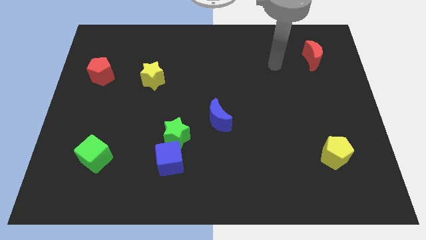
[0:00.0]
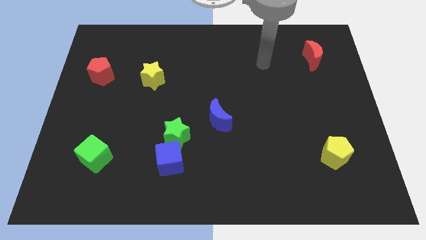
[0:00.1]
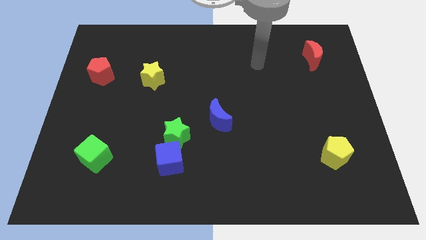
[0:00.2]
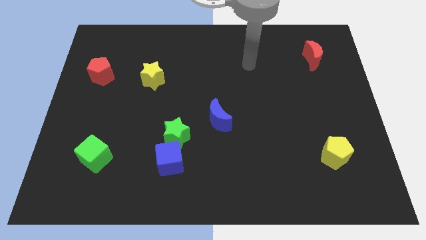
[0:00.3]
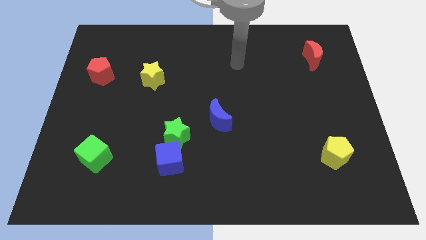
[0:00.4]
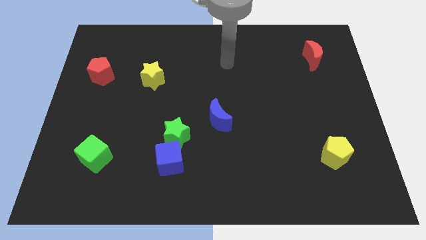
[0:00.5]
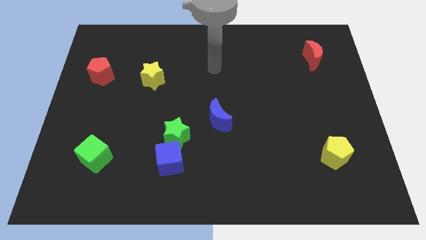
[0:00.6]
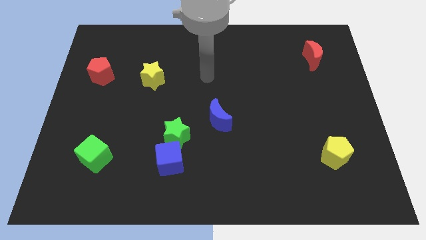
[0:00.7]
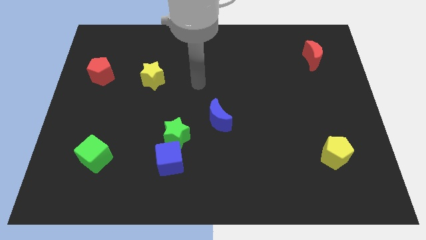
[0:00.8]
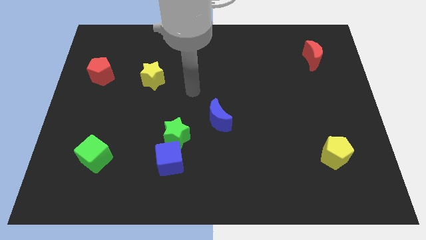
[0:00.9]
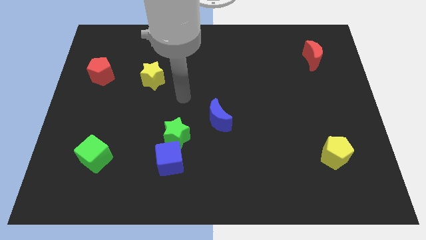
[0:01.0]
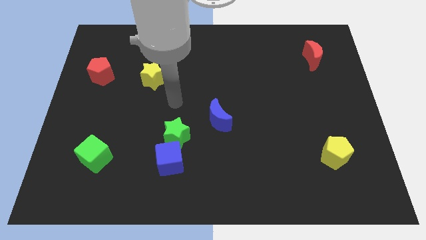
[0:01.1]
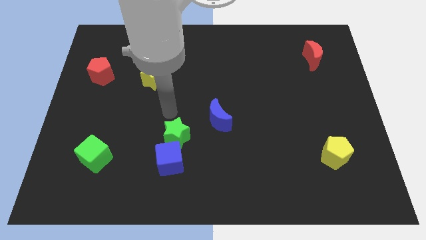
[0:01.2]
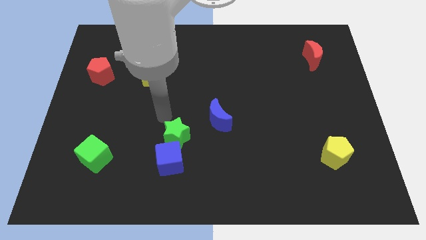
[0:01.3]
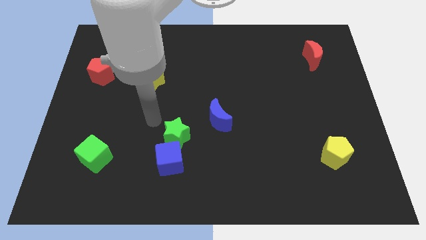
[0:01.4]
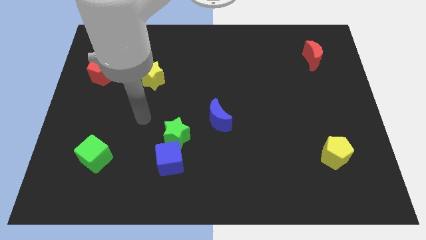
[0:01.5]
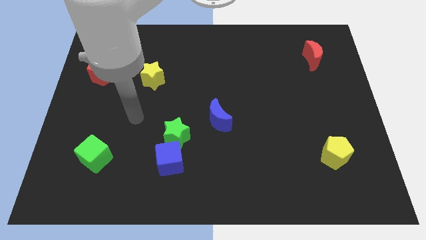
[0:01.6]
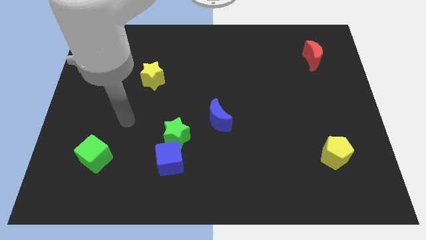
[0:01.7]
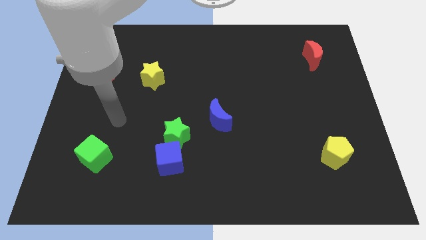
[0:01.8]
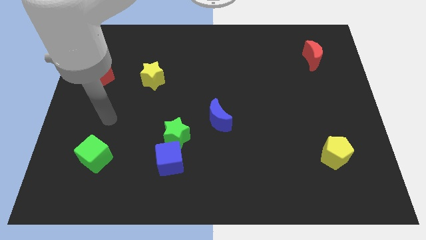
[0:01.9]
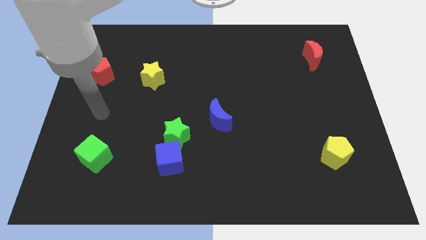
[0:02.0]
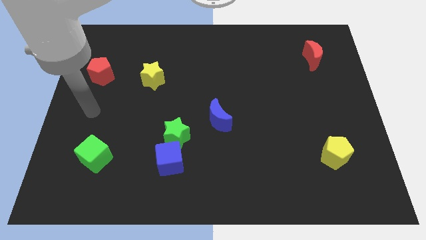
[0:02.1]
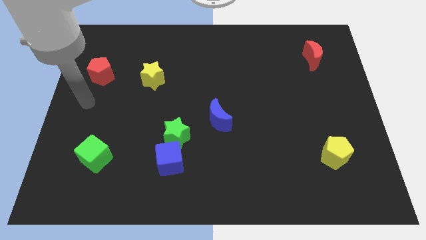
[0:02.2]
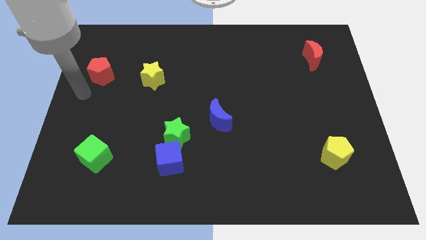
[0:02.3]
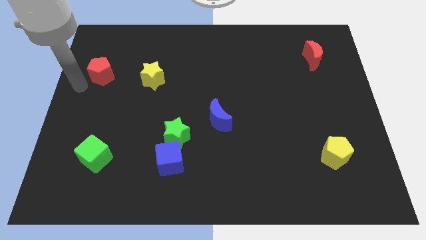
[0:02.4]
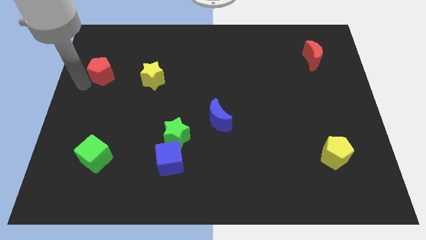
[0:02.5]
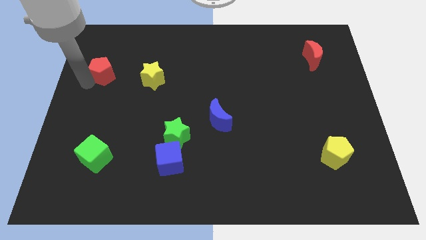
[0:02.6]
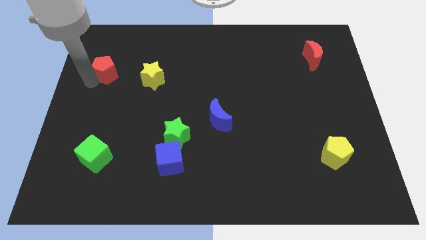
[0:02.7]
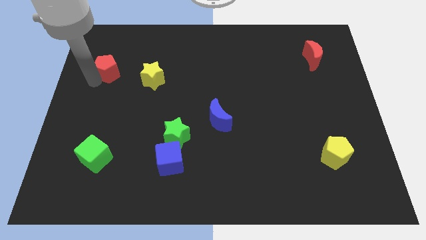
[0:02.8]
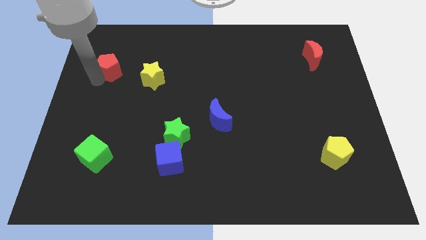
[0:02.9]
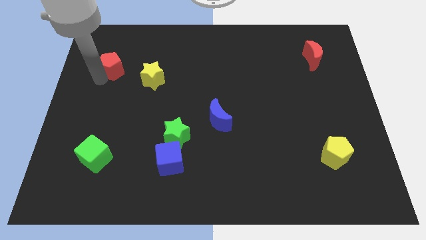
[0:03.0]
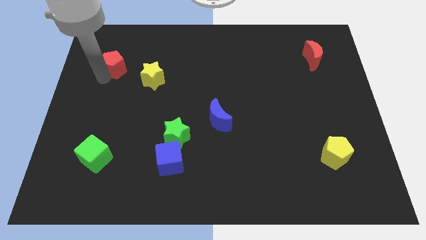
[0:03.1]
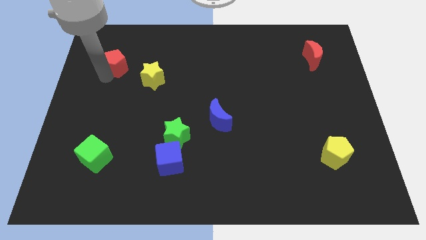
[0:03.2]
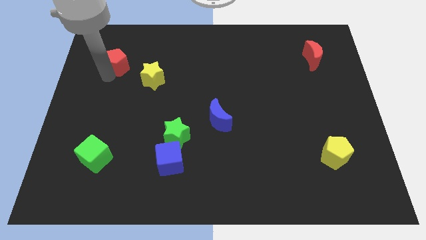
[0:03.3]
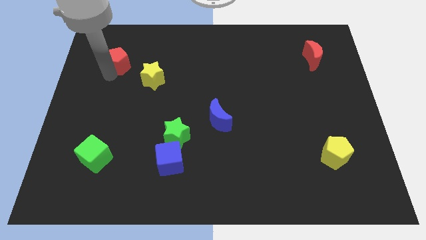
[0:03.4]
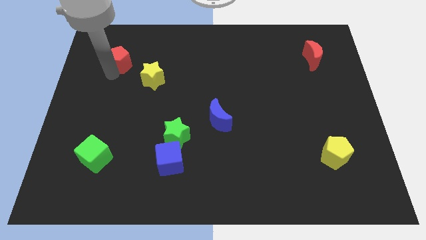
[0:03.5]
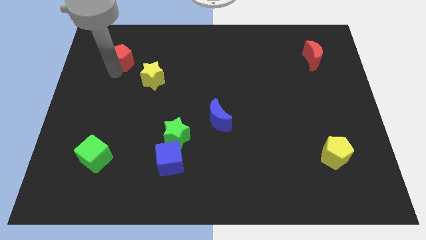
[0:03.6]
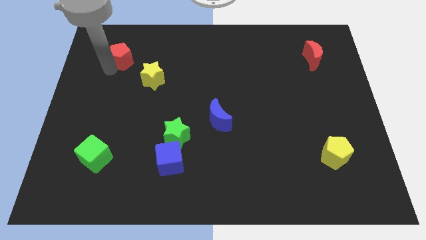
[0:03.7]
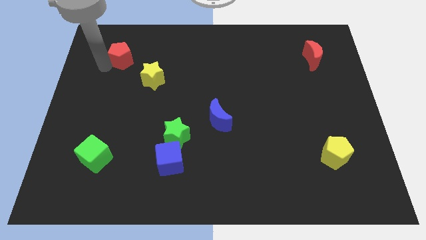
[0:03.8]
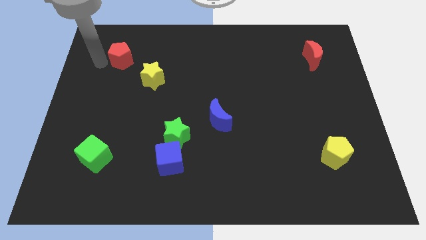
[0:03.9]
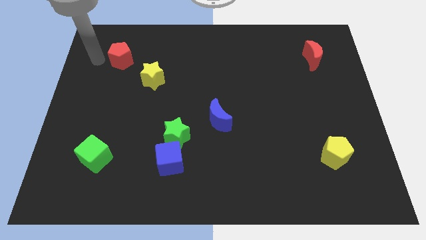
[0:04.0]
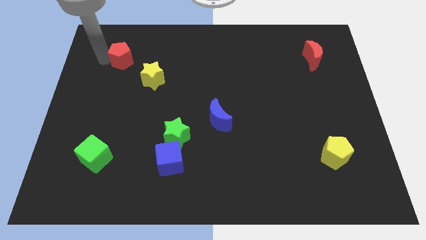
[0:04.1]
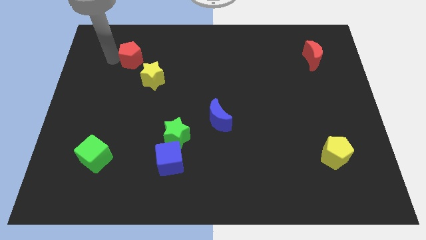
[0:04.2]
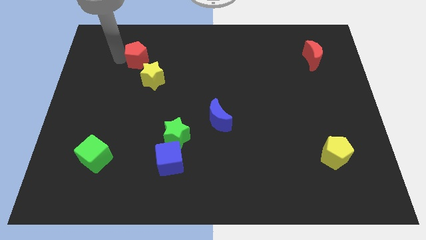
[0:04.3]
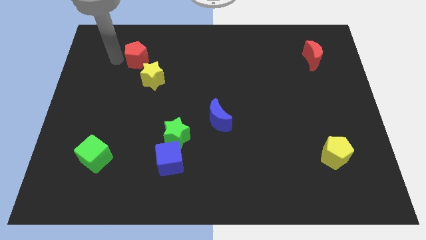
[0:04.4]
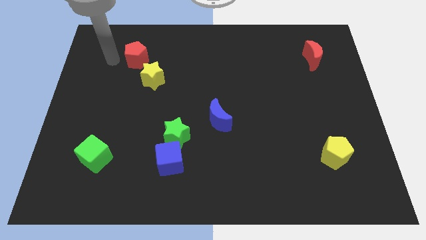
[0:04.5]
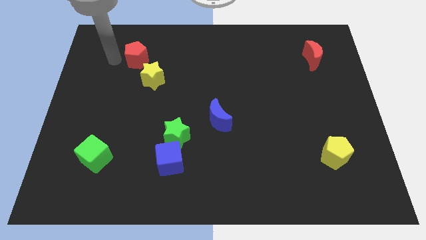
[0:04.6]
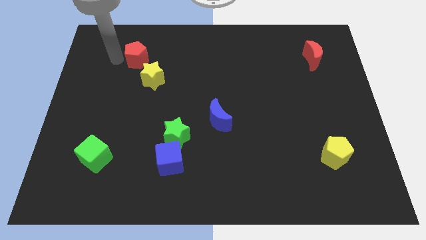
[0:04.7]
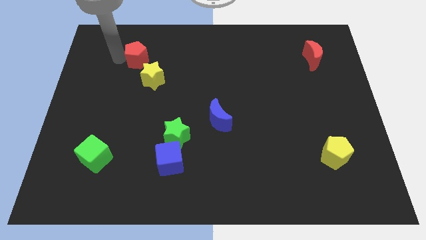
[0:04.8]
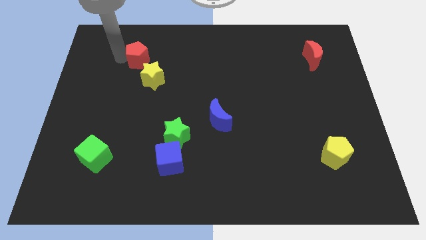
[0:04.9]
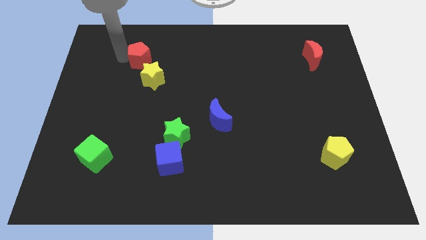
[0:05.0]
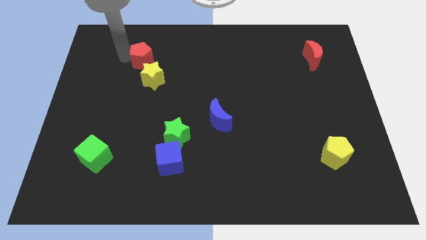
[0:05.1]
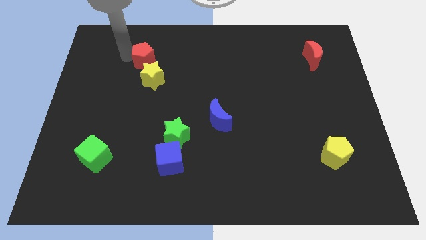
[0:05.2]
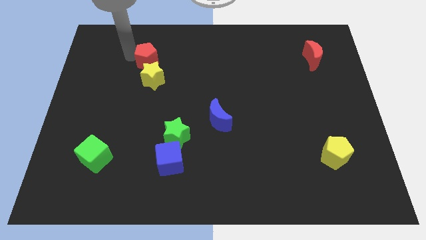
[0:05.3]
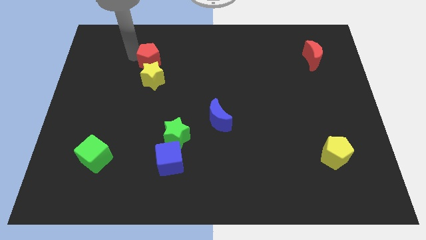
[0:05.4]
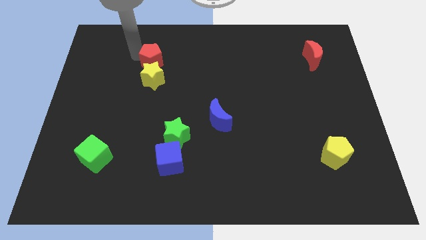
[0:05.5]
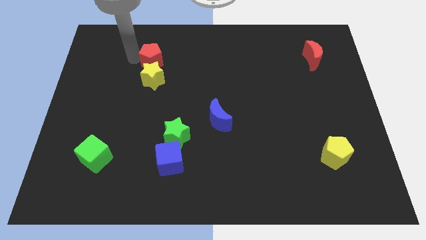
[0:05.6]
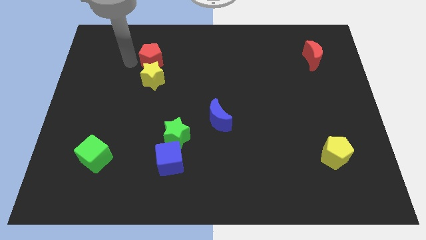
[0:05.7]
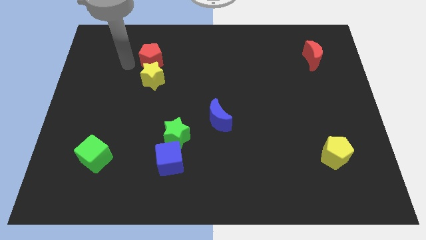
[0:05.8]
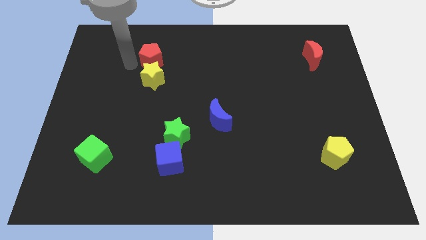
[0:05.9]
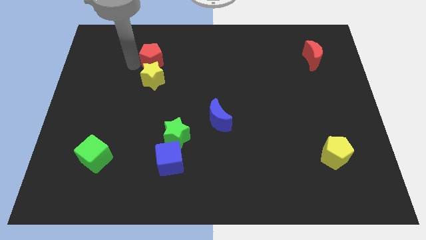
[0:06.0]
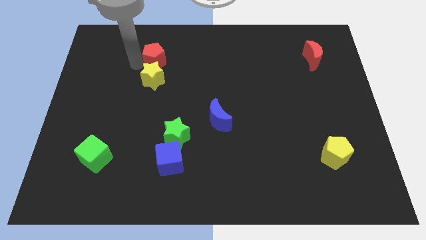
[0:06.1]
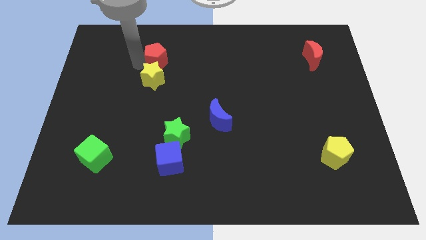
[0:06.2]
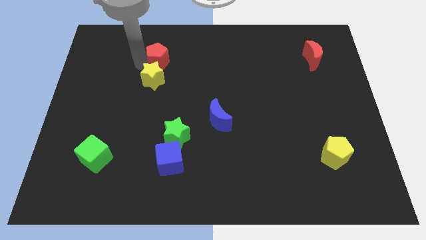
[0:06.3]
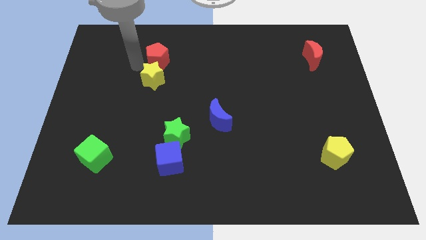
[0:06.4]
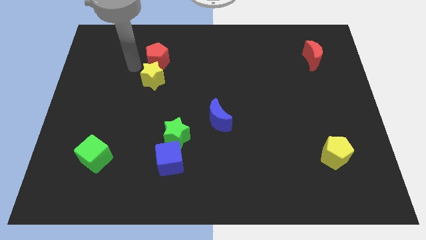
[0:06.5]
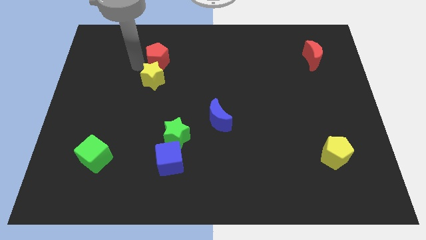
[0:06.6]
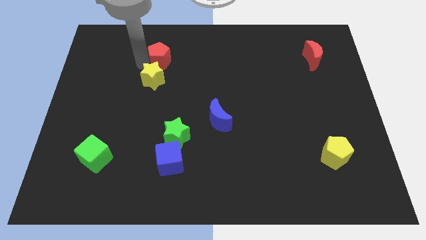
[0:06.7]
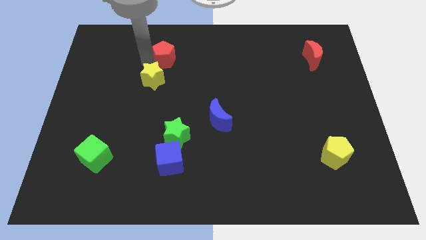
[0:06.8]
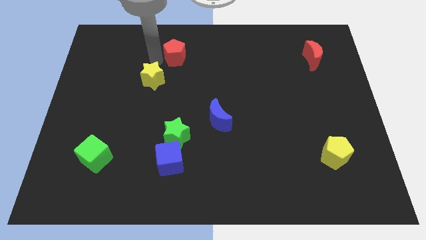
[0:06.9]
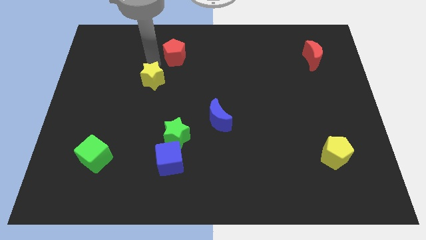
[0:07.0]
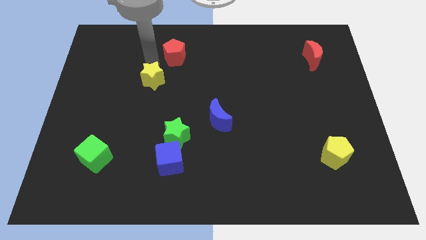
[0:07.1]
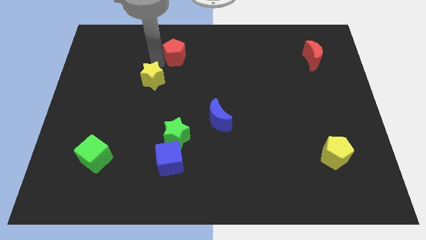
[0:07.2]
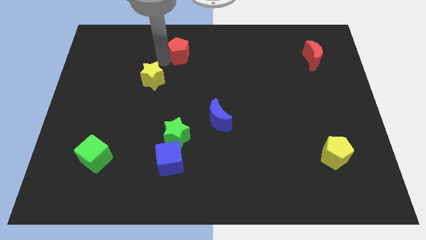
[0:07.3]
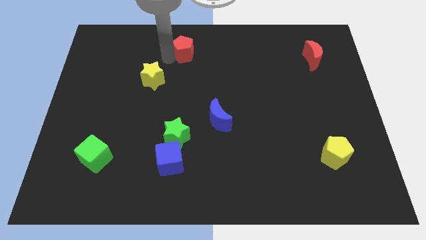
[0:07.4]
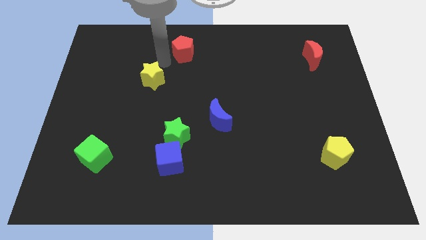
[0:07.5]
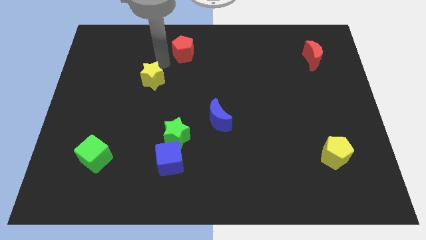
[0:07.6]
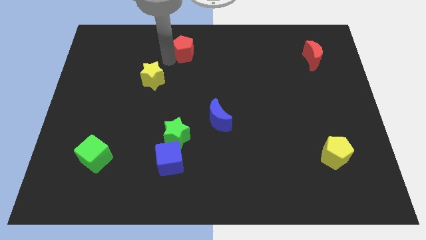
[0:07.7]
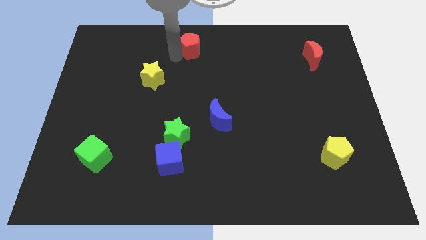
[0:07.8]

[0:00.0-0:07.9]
put the red pentagon to the towards your base
